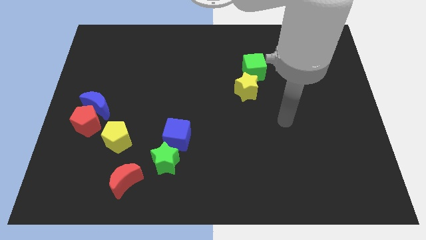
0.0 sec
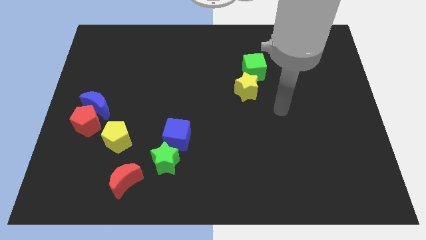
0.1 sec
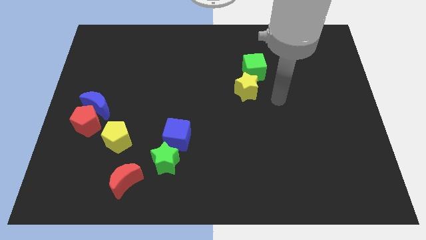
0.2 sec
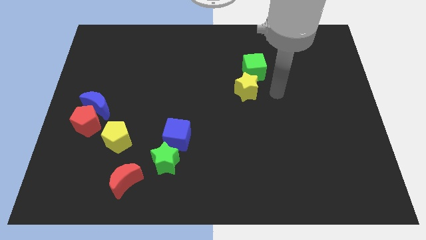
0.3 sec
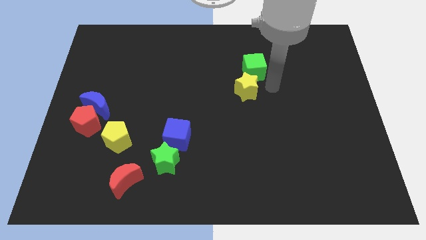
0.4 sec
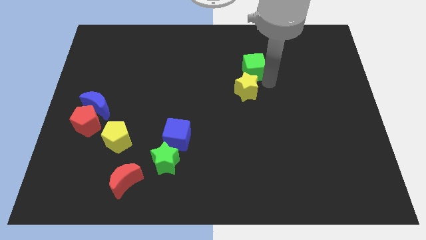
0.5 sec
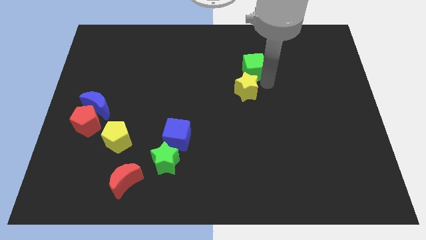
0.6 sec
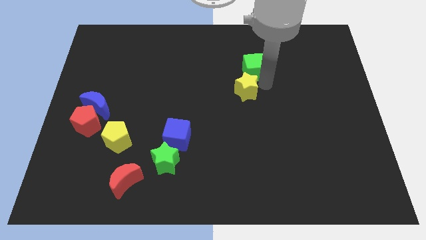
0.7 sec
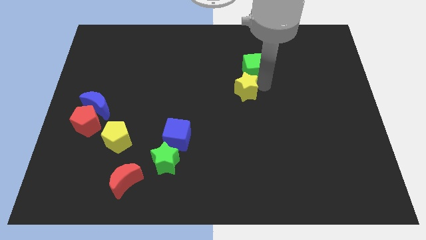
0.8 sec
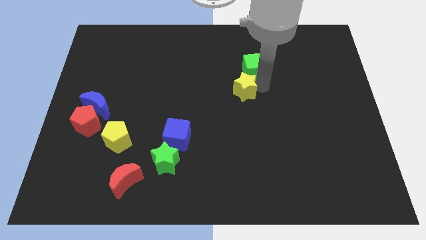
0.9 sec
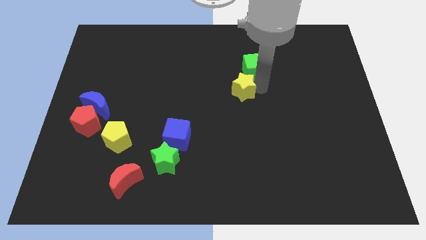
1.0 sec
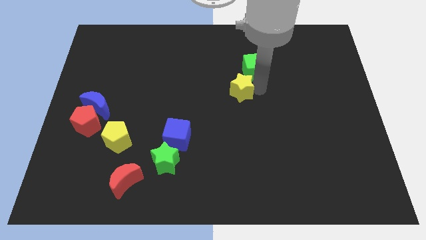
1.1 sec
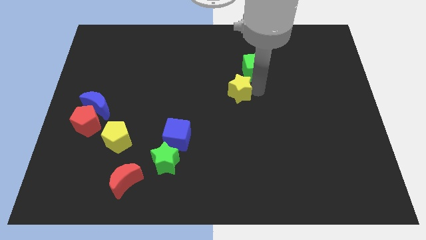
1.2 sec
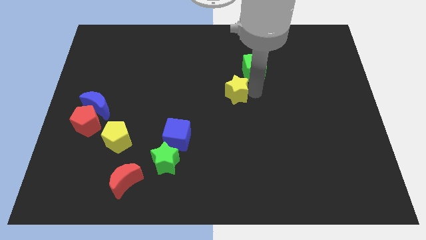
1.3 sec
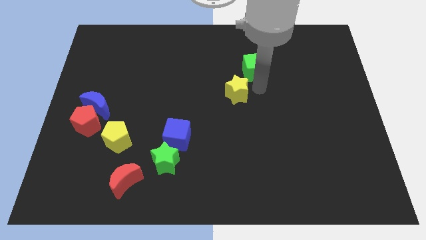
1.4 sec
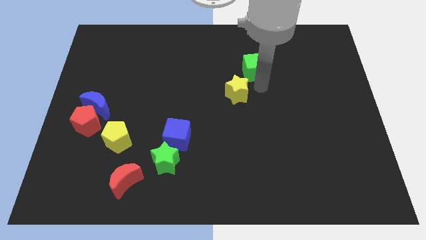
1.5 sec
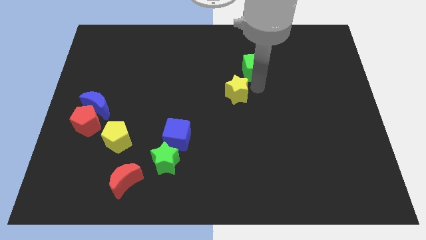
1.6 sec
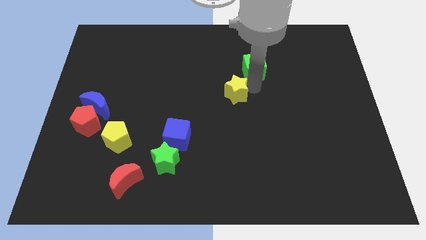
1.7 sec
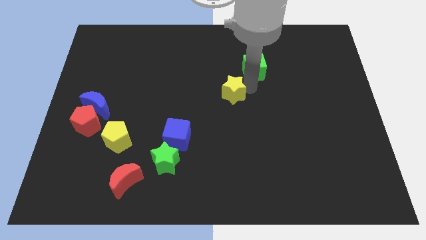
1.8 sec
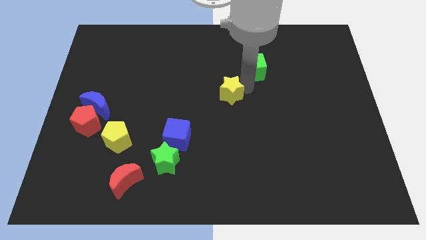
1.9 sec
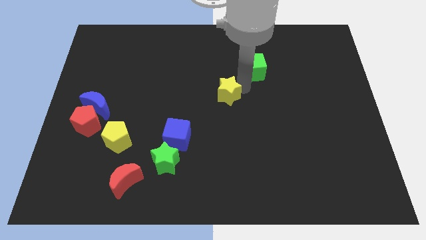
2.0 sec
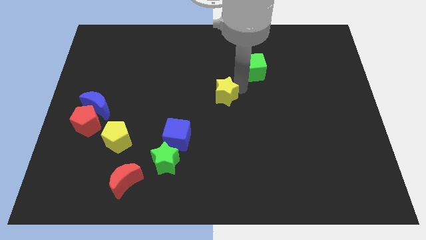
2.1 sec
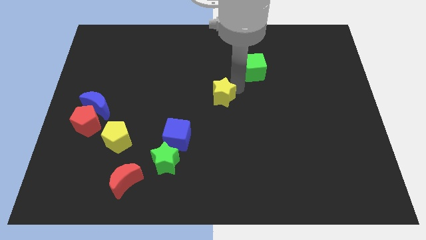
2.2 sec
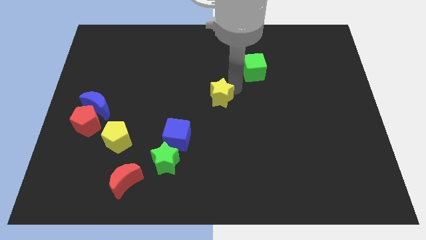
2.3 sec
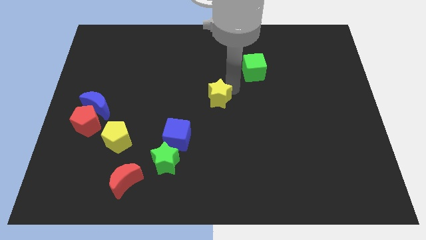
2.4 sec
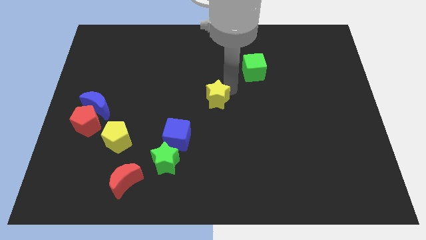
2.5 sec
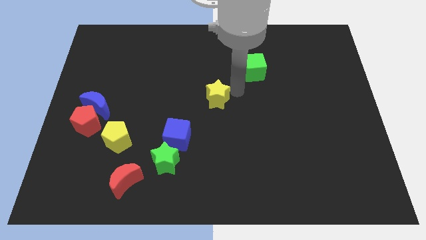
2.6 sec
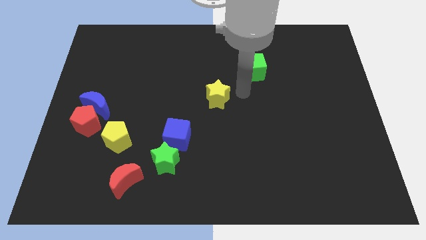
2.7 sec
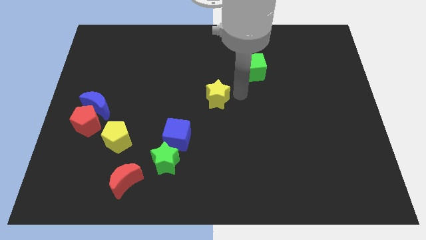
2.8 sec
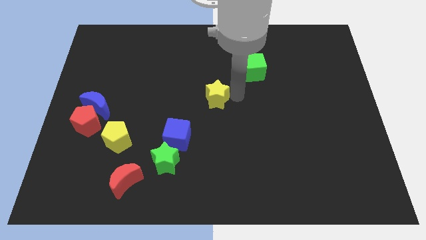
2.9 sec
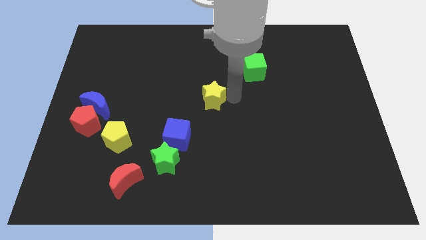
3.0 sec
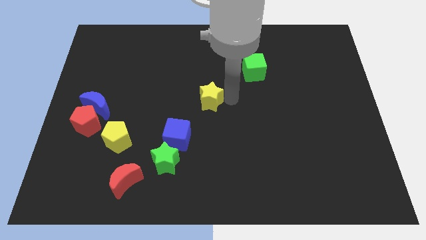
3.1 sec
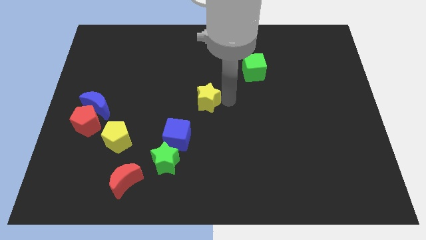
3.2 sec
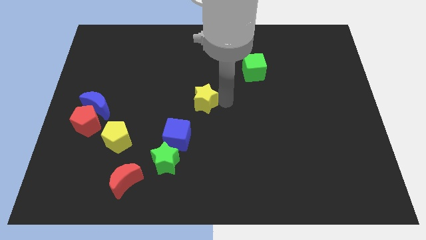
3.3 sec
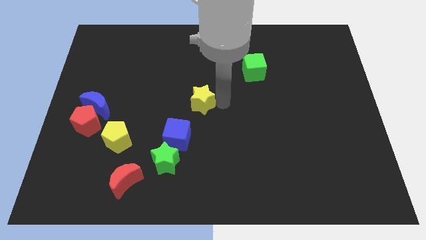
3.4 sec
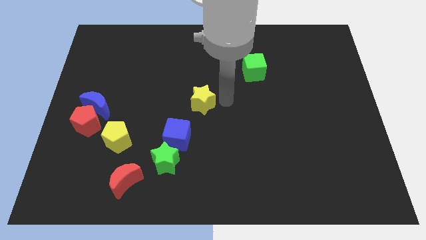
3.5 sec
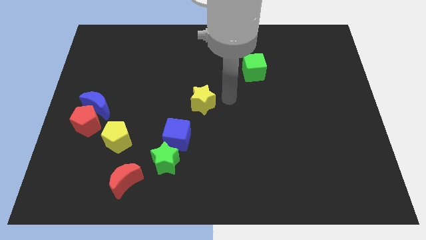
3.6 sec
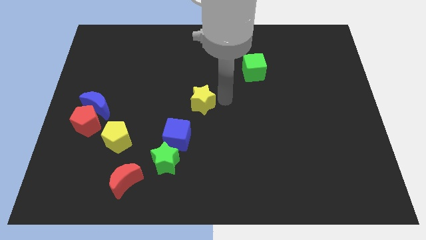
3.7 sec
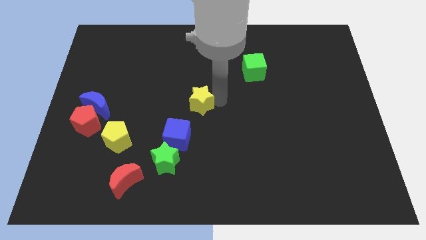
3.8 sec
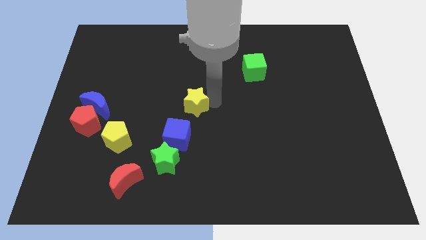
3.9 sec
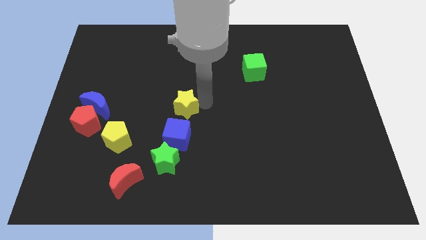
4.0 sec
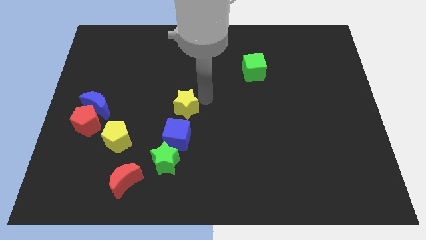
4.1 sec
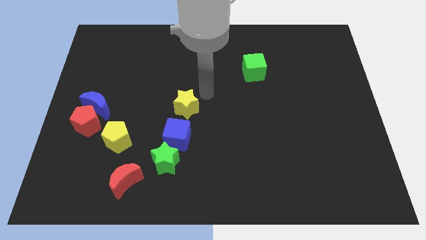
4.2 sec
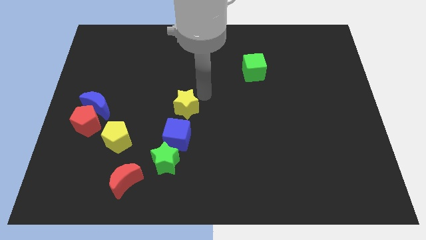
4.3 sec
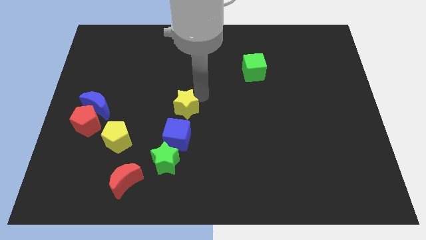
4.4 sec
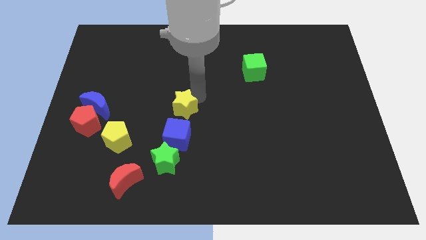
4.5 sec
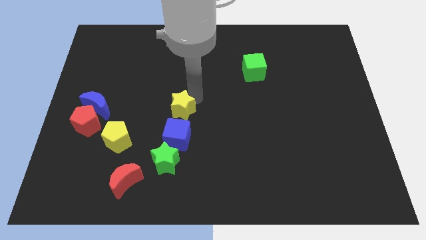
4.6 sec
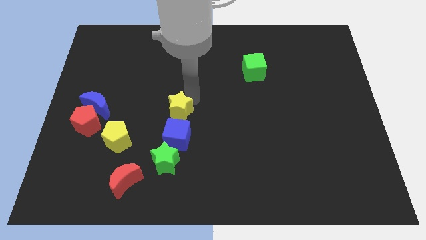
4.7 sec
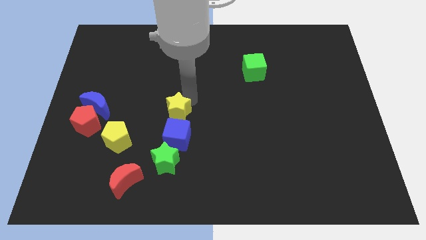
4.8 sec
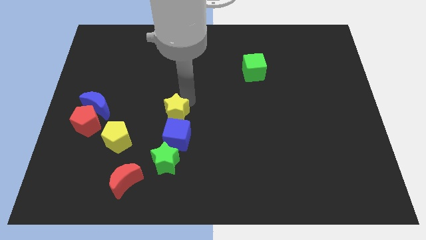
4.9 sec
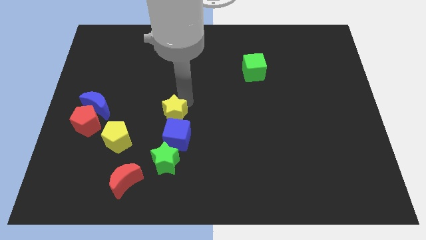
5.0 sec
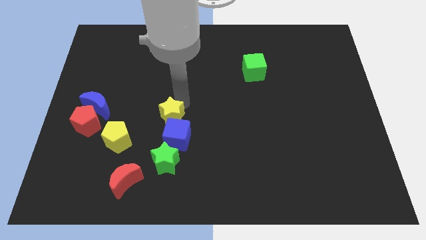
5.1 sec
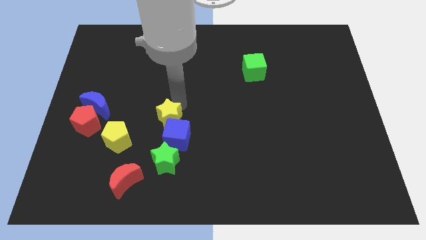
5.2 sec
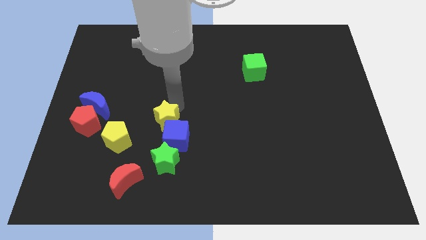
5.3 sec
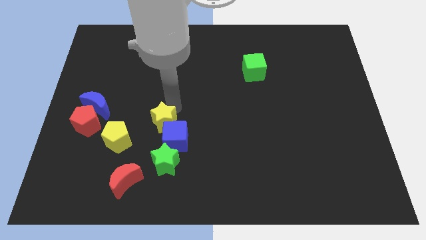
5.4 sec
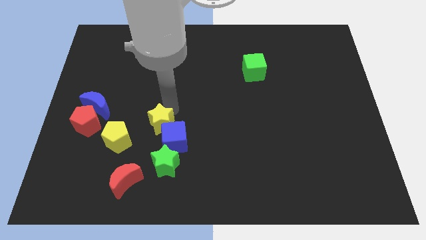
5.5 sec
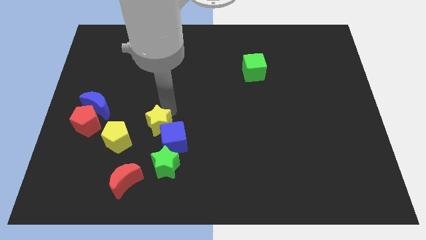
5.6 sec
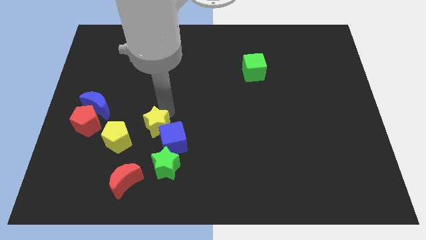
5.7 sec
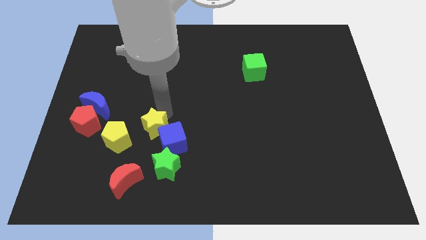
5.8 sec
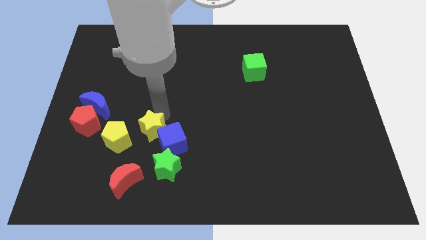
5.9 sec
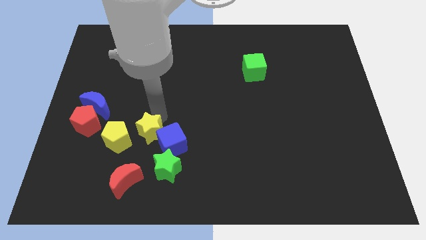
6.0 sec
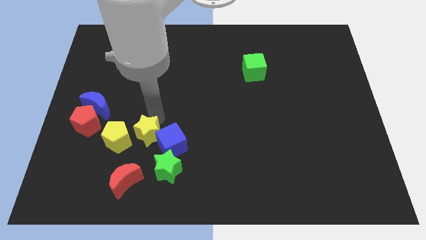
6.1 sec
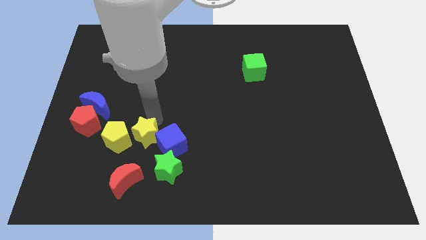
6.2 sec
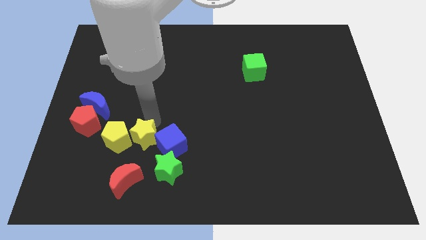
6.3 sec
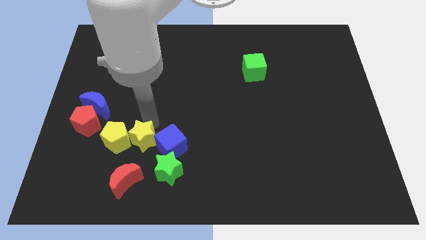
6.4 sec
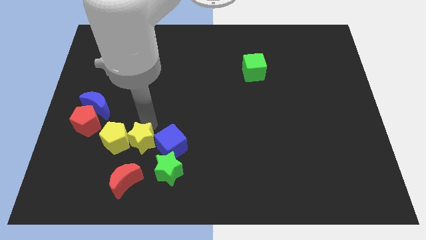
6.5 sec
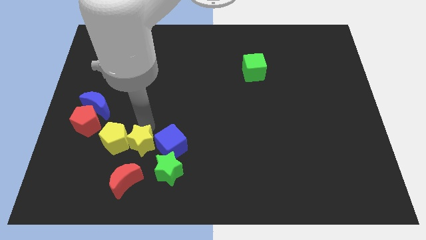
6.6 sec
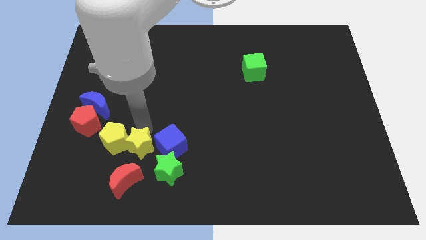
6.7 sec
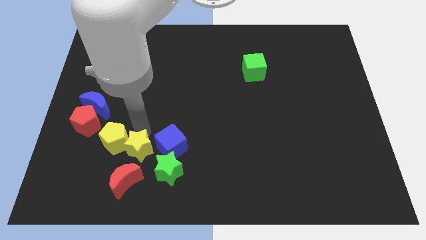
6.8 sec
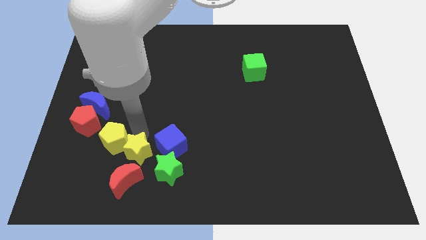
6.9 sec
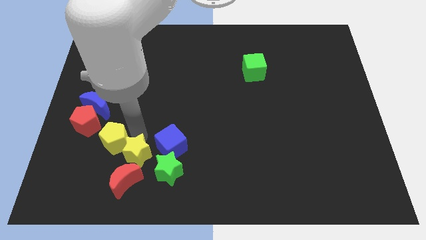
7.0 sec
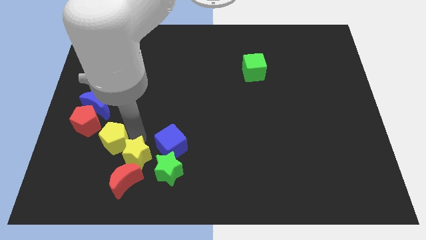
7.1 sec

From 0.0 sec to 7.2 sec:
move the yellow star close to the red moon
